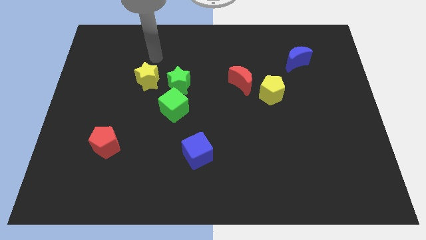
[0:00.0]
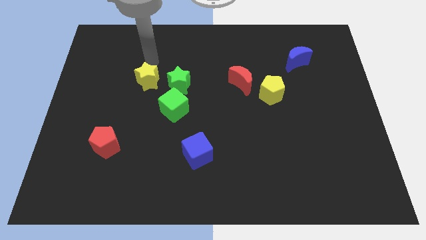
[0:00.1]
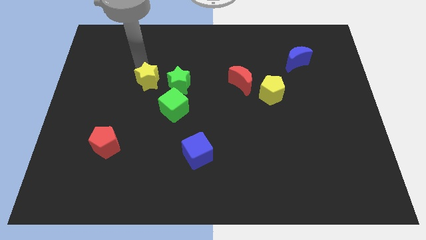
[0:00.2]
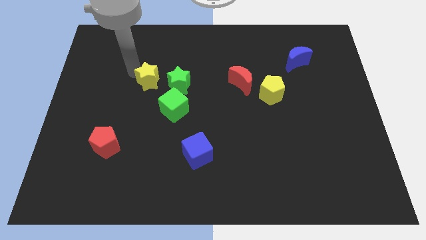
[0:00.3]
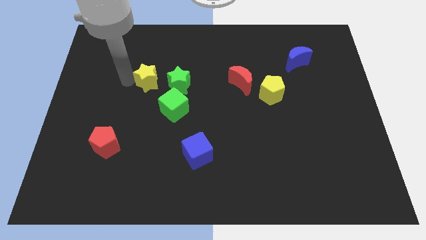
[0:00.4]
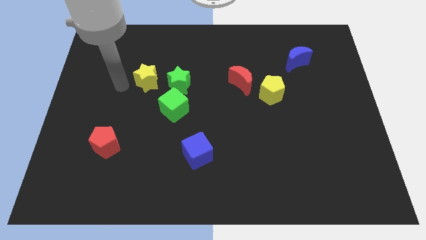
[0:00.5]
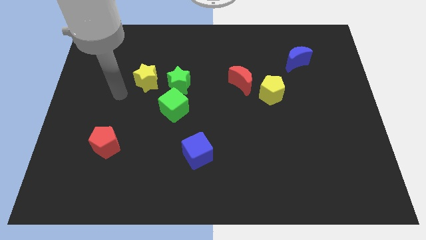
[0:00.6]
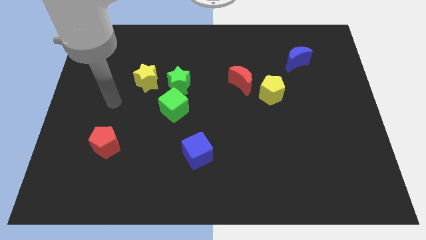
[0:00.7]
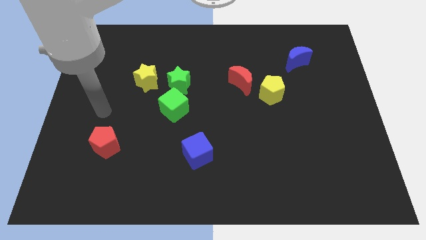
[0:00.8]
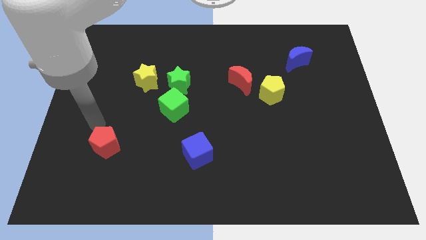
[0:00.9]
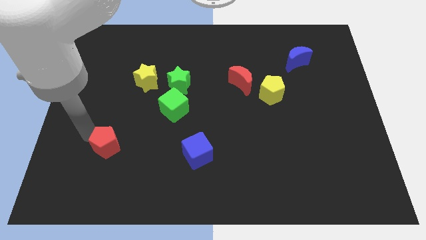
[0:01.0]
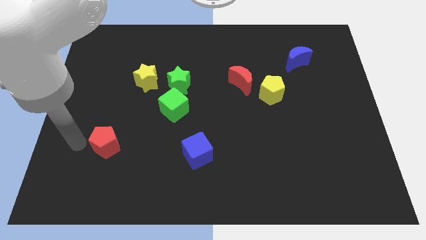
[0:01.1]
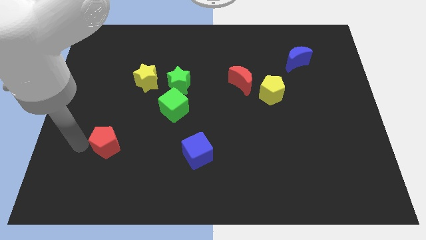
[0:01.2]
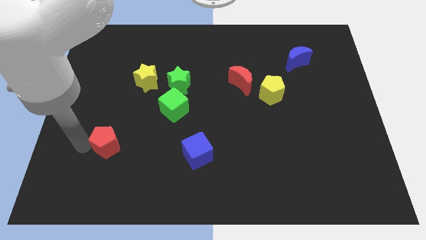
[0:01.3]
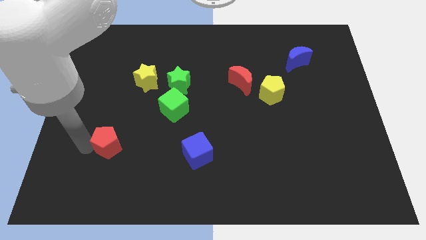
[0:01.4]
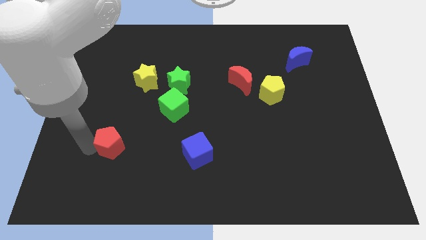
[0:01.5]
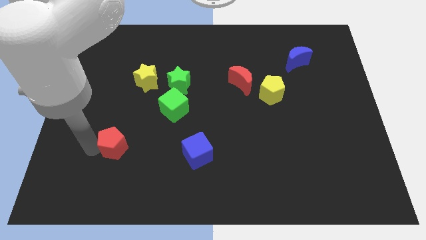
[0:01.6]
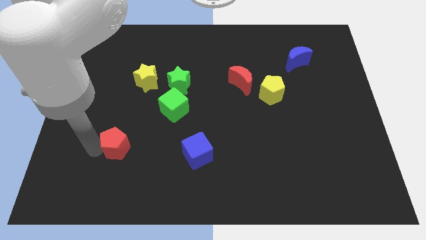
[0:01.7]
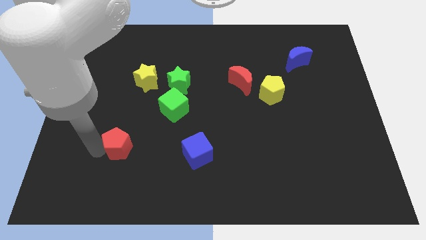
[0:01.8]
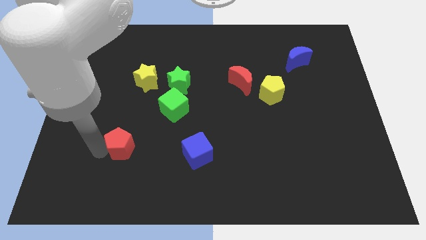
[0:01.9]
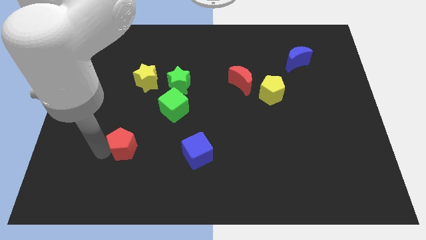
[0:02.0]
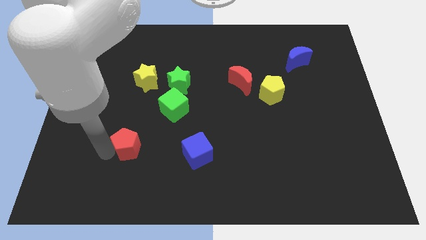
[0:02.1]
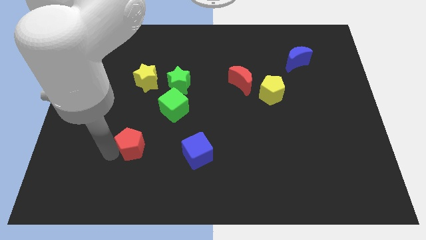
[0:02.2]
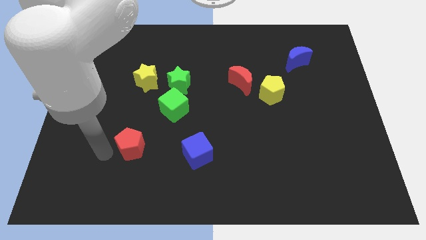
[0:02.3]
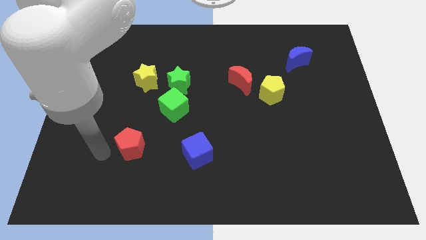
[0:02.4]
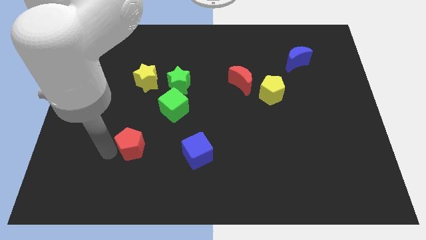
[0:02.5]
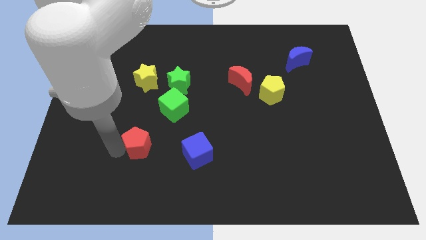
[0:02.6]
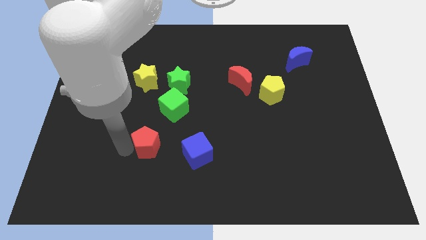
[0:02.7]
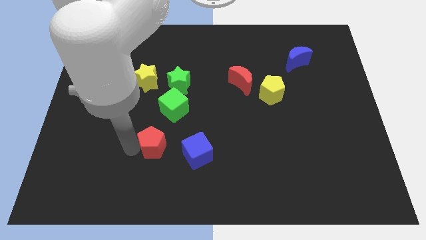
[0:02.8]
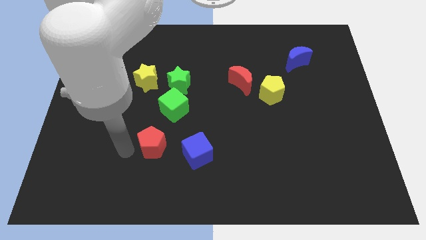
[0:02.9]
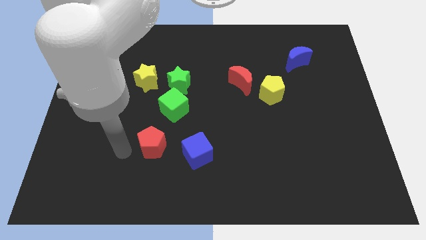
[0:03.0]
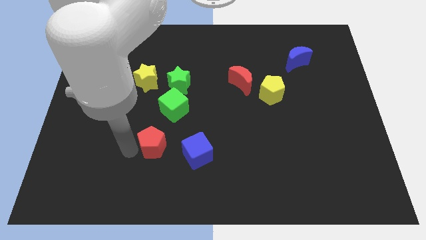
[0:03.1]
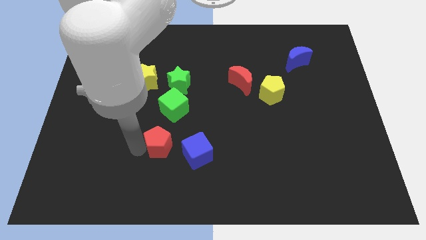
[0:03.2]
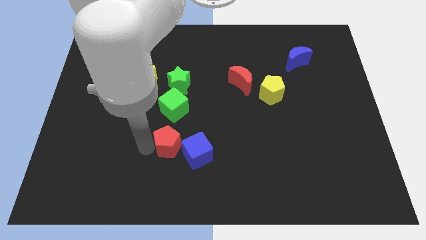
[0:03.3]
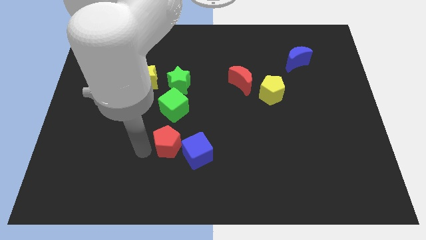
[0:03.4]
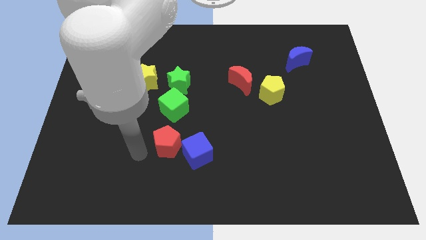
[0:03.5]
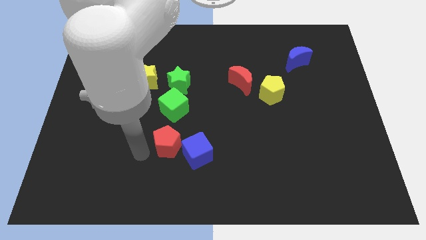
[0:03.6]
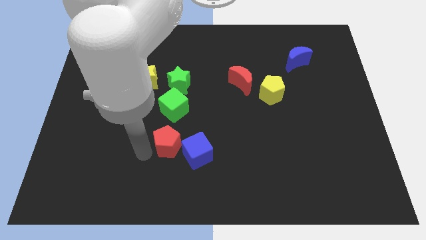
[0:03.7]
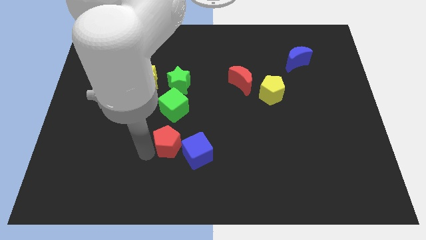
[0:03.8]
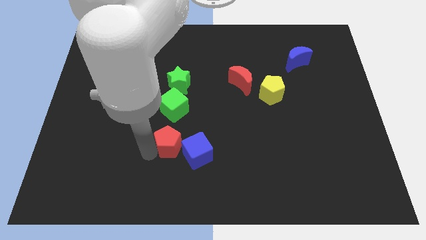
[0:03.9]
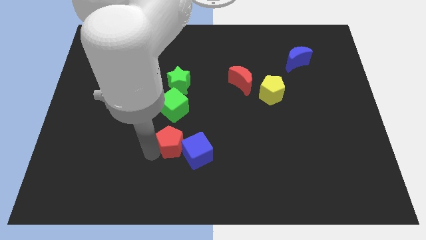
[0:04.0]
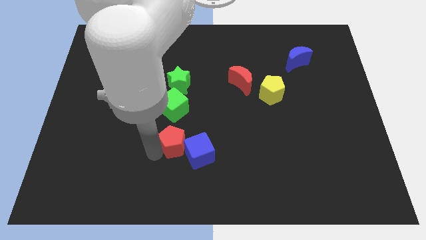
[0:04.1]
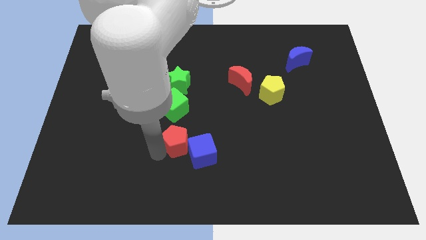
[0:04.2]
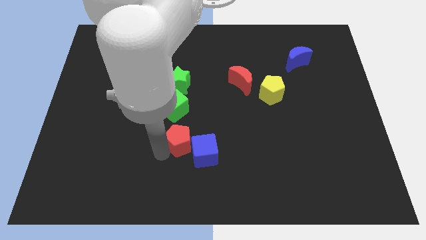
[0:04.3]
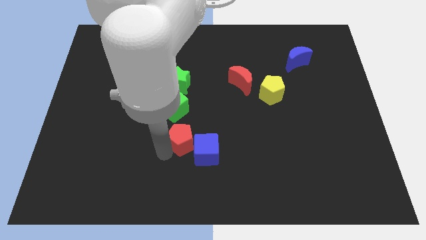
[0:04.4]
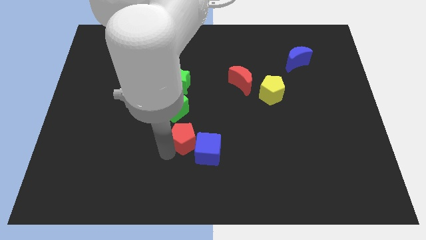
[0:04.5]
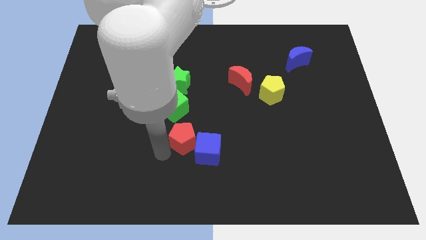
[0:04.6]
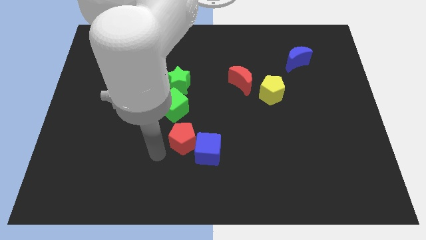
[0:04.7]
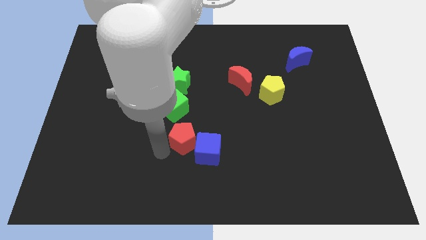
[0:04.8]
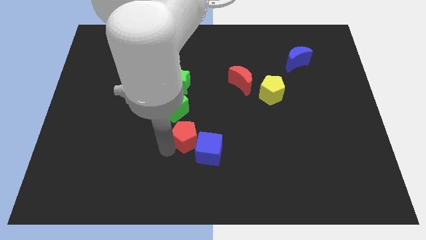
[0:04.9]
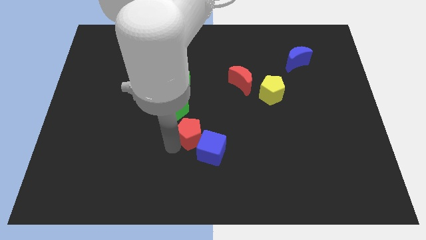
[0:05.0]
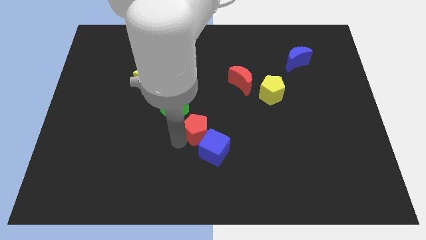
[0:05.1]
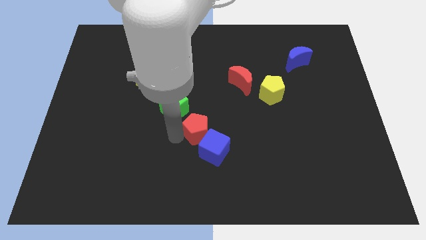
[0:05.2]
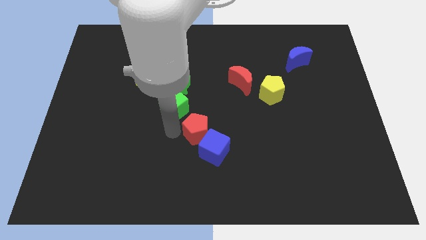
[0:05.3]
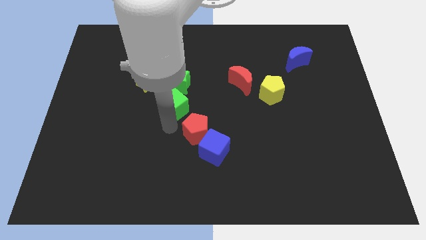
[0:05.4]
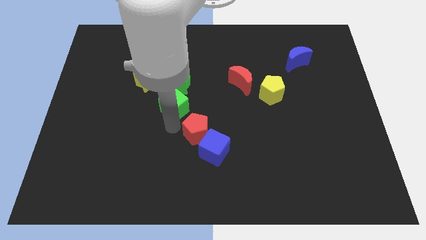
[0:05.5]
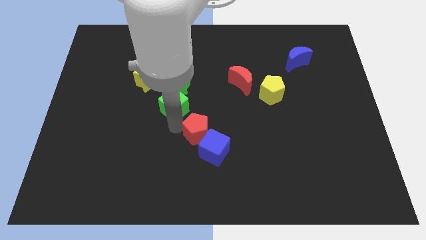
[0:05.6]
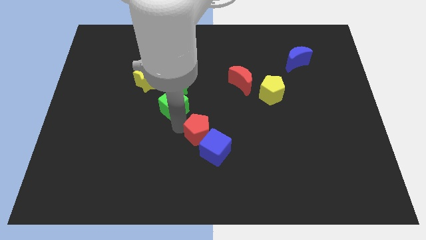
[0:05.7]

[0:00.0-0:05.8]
slide the red pentagon to the right

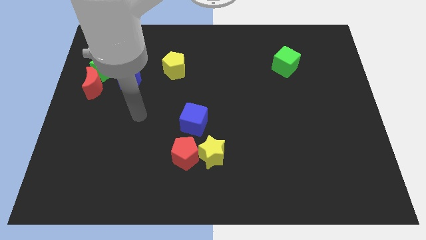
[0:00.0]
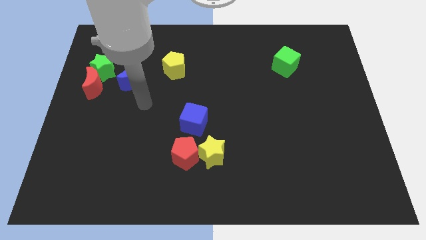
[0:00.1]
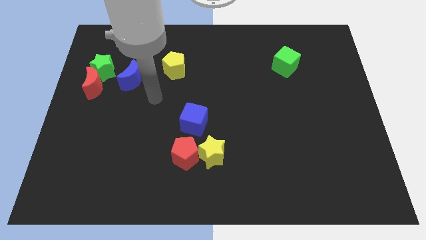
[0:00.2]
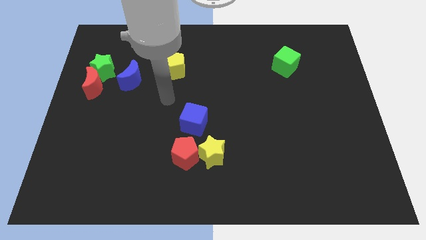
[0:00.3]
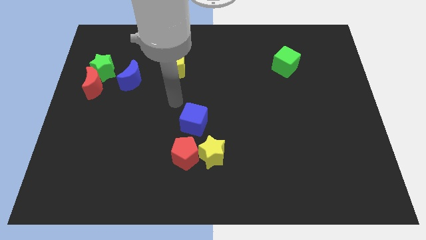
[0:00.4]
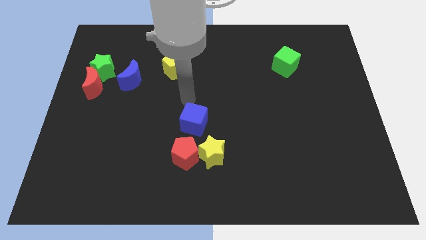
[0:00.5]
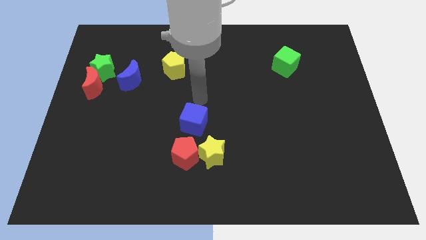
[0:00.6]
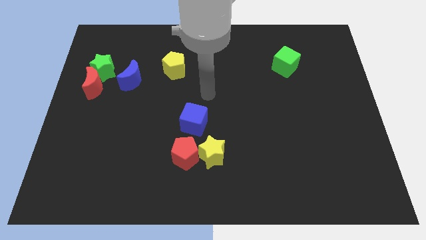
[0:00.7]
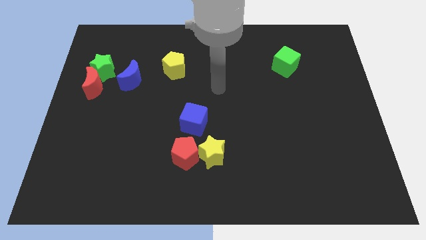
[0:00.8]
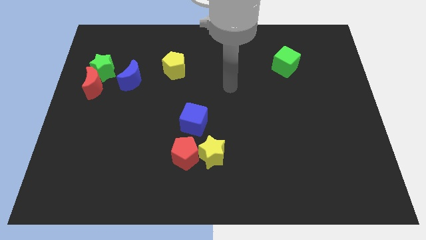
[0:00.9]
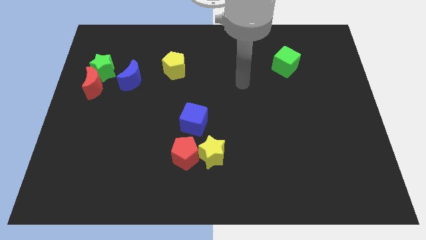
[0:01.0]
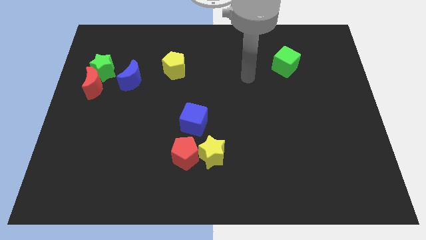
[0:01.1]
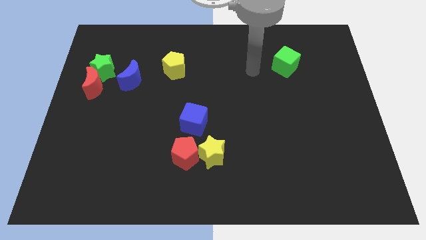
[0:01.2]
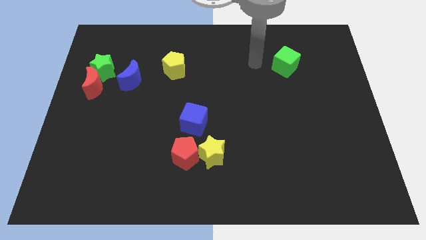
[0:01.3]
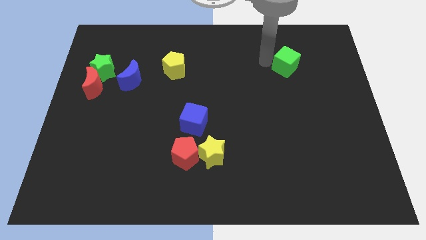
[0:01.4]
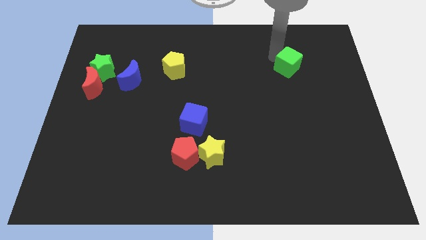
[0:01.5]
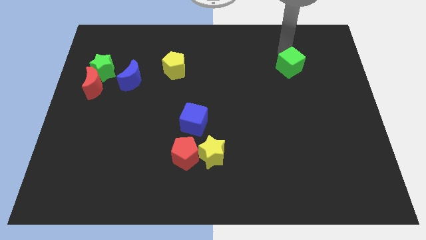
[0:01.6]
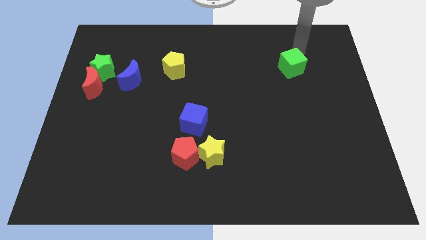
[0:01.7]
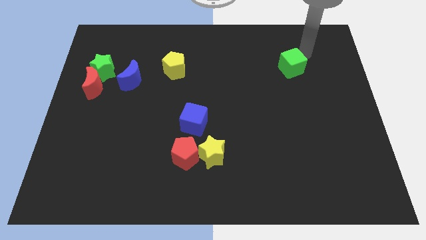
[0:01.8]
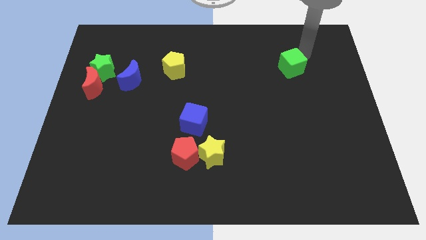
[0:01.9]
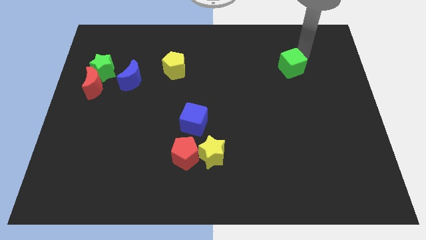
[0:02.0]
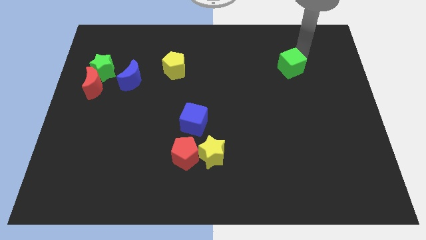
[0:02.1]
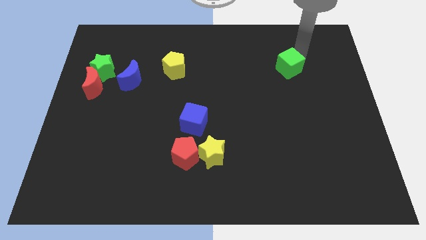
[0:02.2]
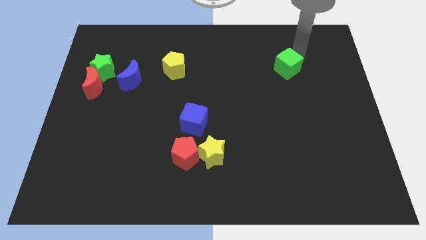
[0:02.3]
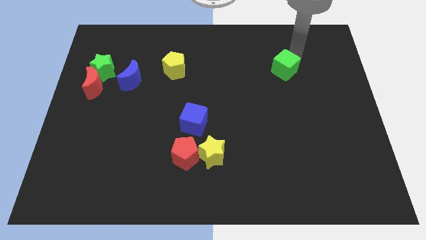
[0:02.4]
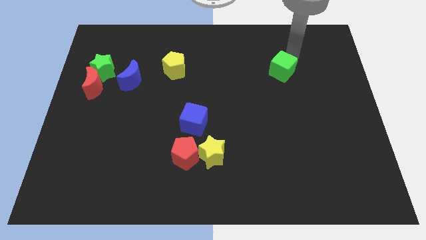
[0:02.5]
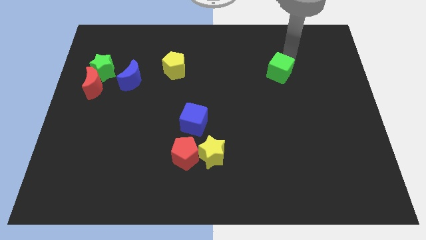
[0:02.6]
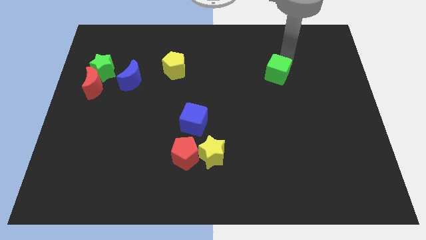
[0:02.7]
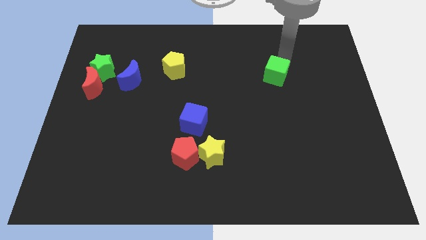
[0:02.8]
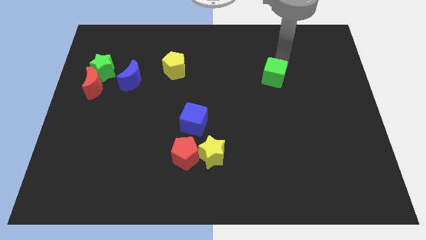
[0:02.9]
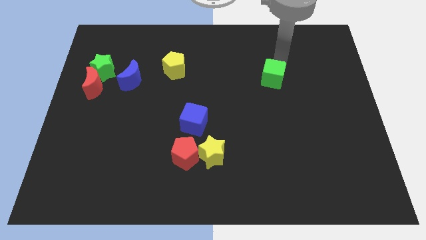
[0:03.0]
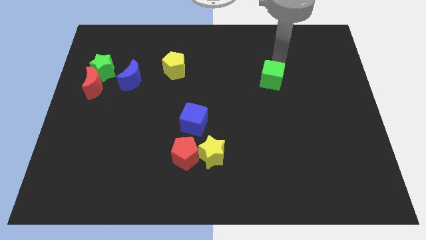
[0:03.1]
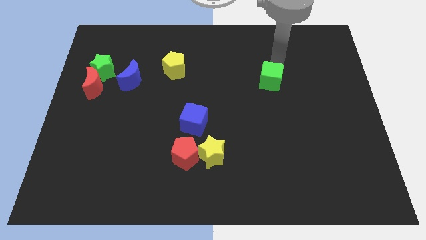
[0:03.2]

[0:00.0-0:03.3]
slightly move the green cube diagonally downwards and to the left
